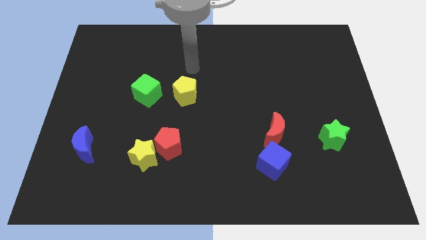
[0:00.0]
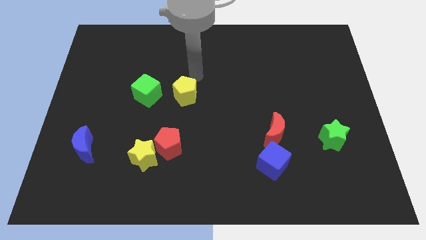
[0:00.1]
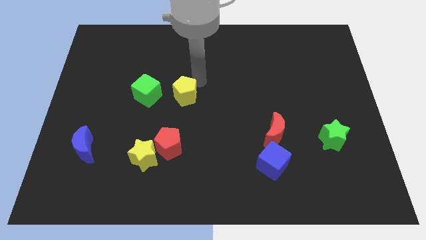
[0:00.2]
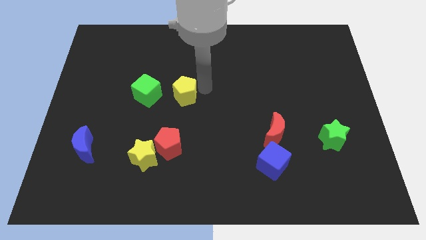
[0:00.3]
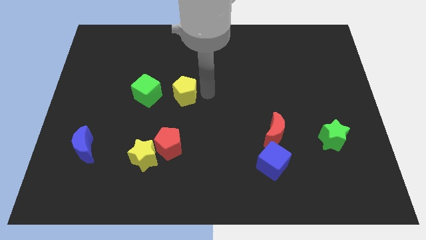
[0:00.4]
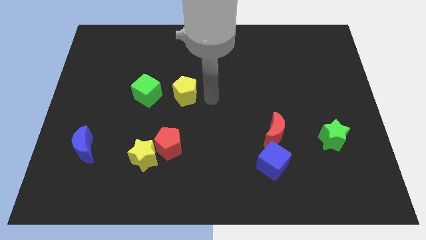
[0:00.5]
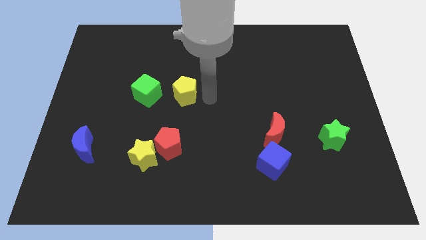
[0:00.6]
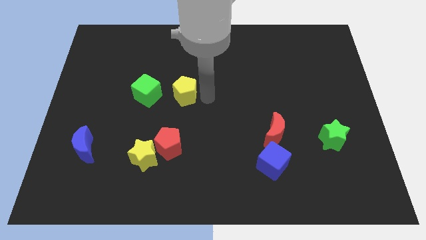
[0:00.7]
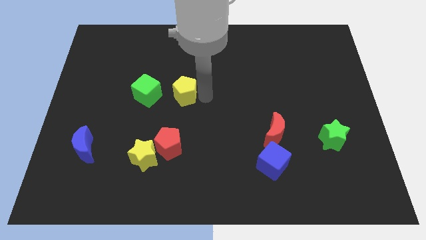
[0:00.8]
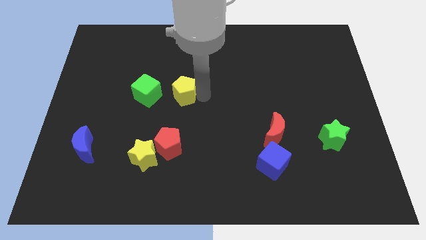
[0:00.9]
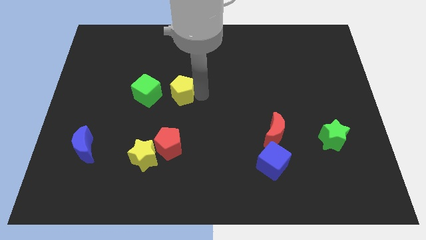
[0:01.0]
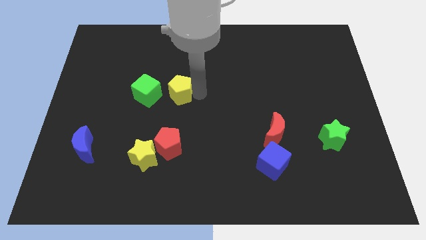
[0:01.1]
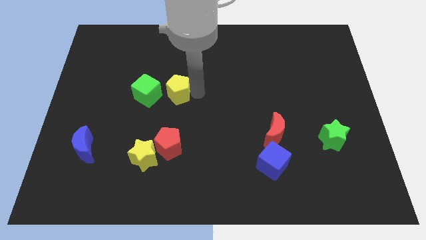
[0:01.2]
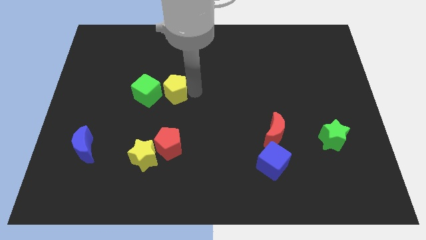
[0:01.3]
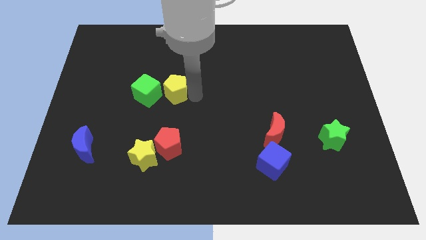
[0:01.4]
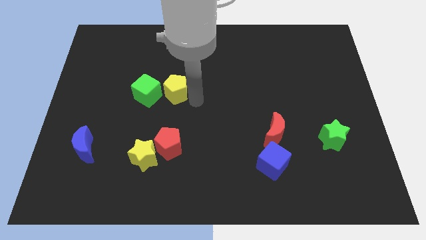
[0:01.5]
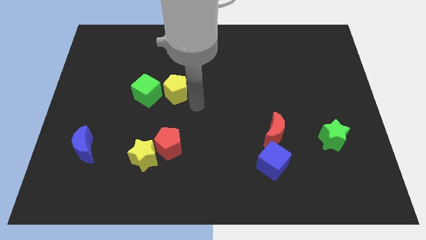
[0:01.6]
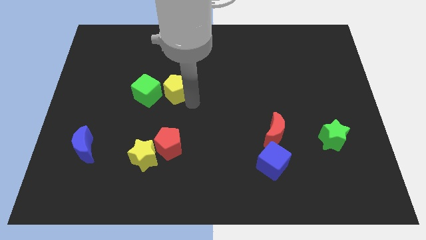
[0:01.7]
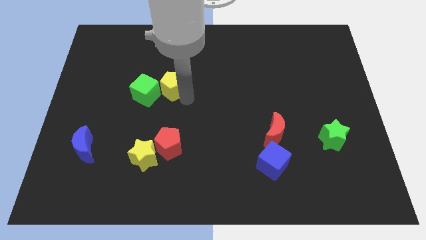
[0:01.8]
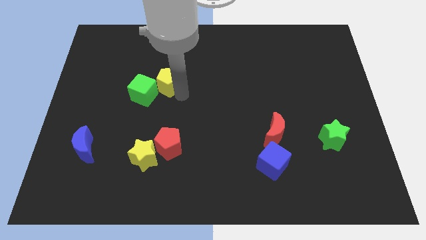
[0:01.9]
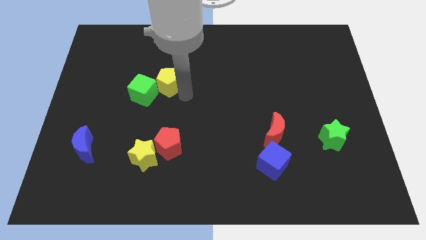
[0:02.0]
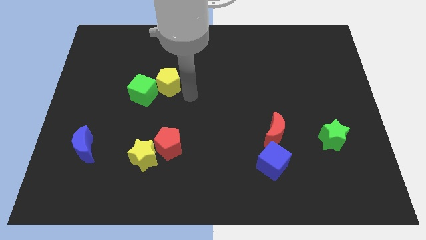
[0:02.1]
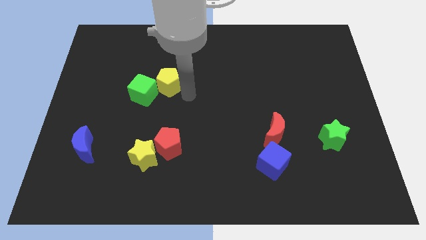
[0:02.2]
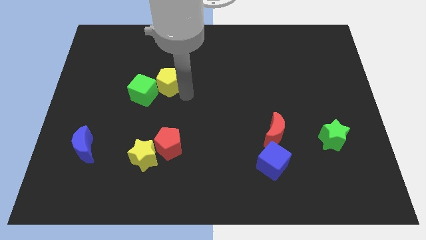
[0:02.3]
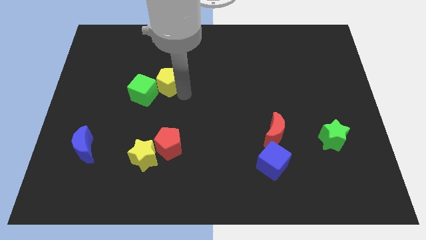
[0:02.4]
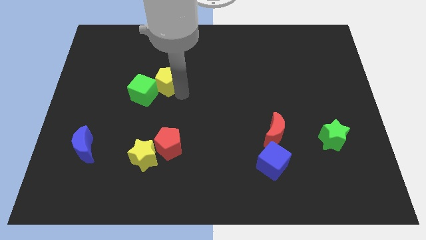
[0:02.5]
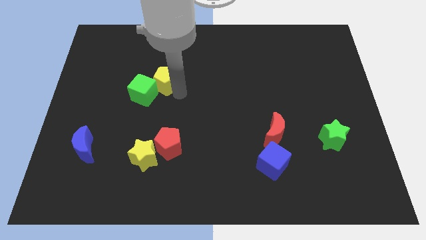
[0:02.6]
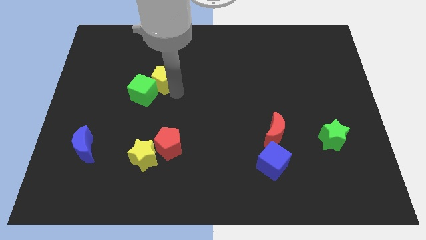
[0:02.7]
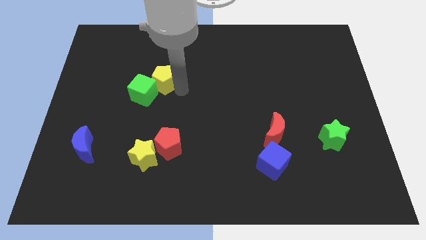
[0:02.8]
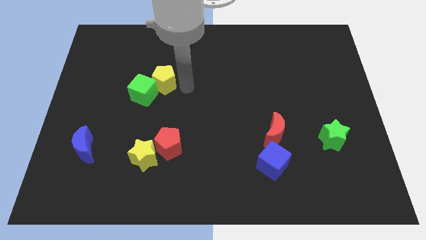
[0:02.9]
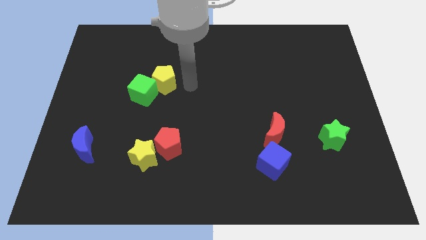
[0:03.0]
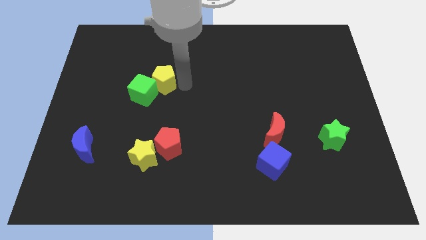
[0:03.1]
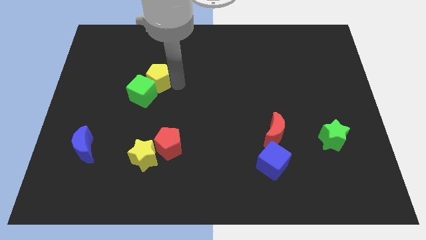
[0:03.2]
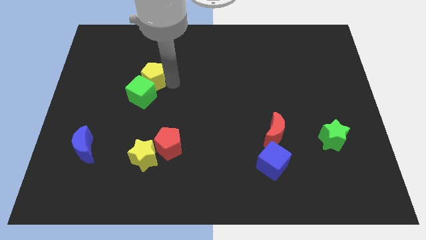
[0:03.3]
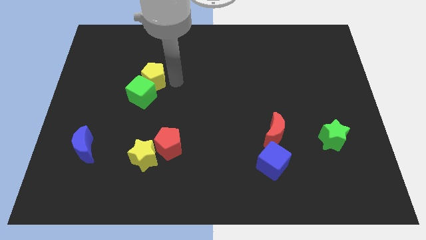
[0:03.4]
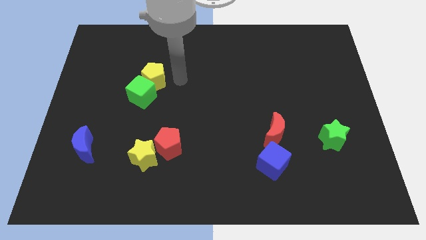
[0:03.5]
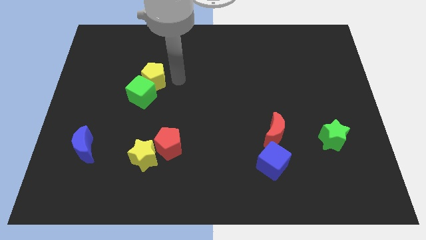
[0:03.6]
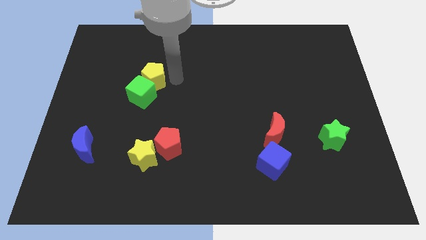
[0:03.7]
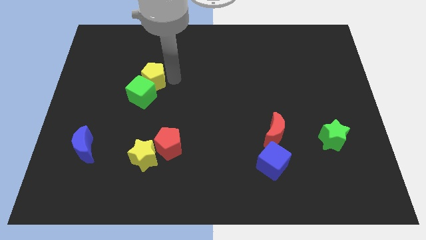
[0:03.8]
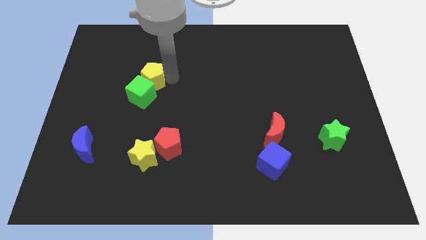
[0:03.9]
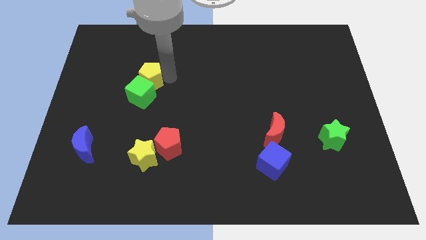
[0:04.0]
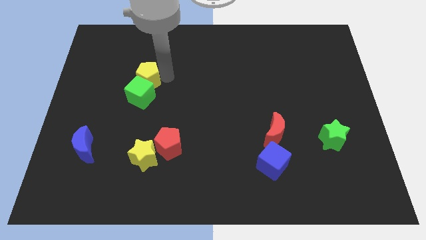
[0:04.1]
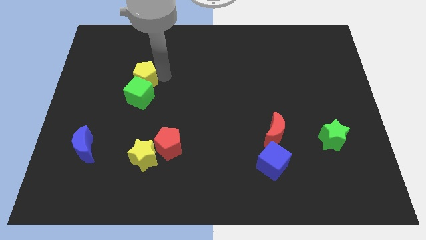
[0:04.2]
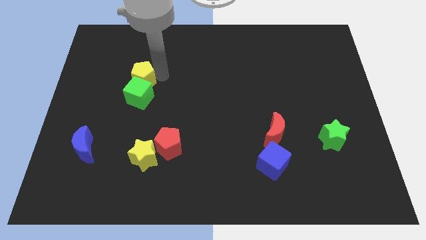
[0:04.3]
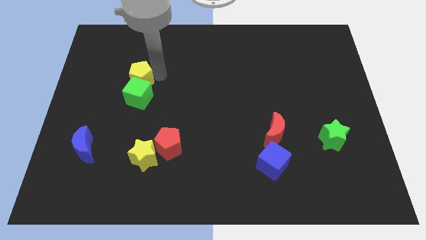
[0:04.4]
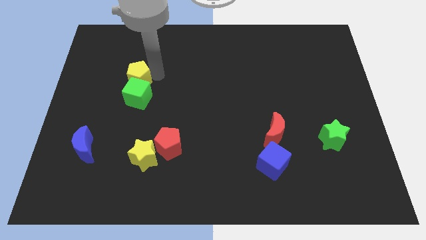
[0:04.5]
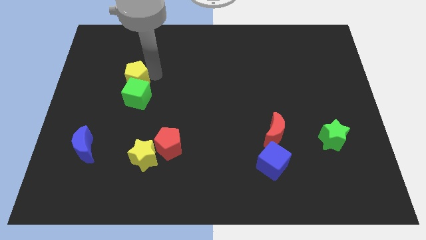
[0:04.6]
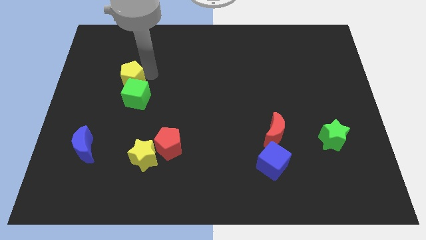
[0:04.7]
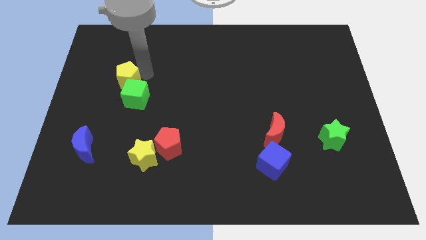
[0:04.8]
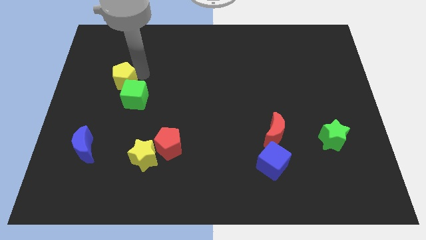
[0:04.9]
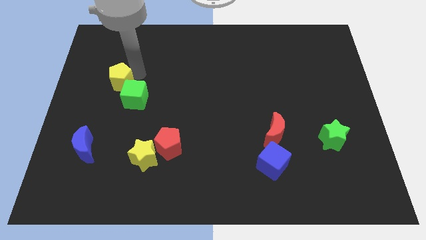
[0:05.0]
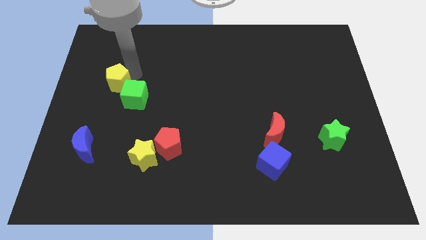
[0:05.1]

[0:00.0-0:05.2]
move the yellow pentagon left of the green cube
